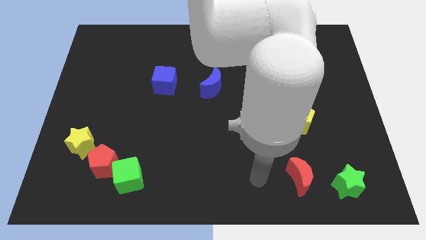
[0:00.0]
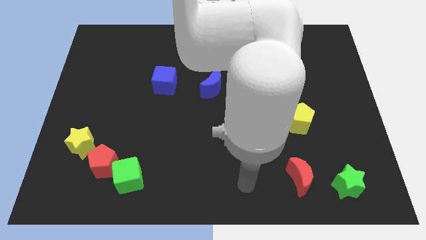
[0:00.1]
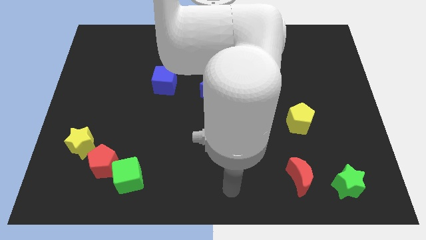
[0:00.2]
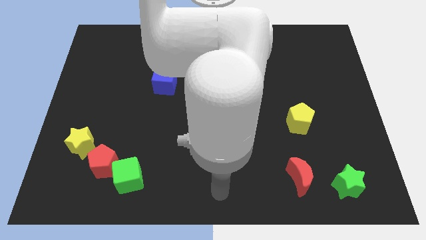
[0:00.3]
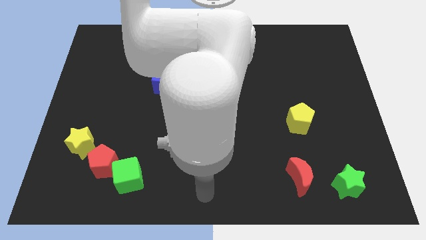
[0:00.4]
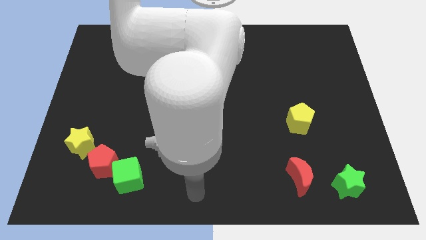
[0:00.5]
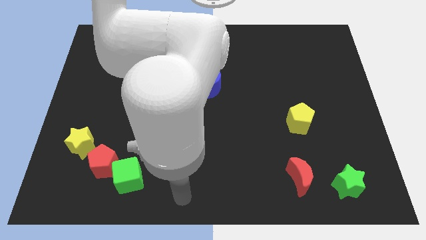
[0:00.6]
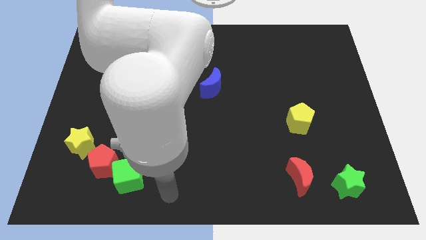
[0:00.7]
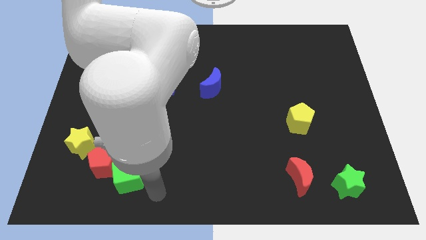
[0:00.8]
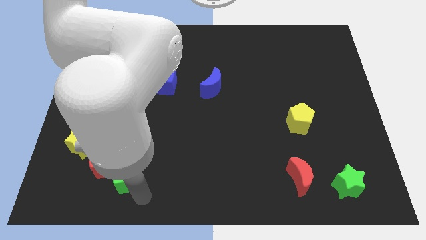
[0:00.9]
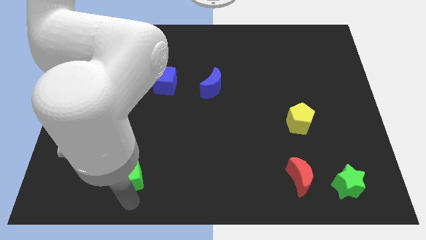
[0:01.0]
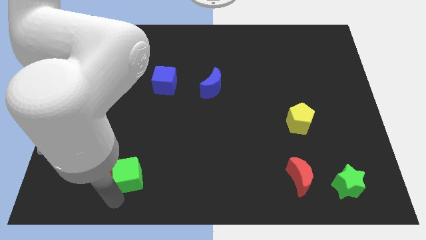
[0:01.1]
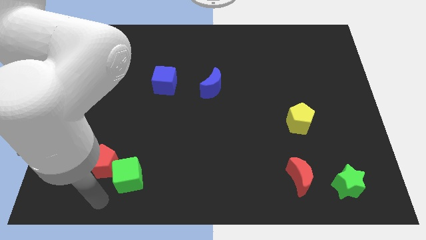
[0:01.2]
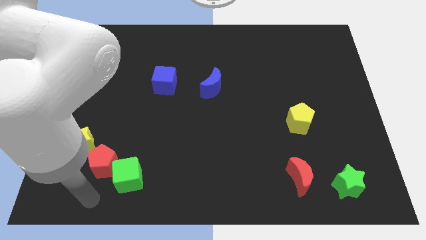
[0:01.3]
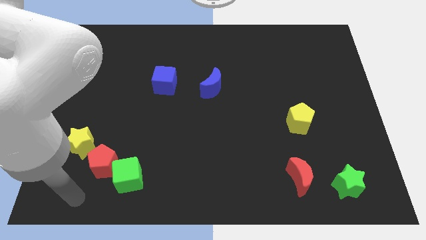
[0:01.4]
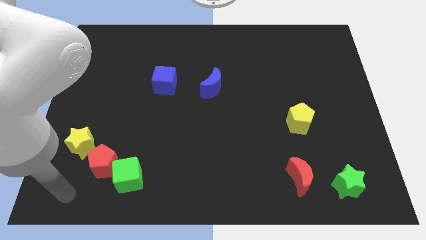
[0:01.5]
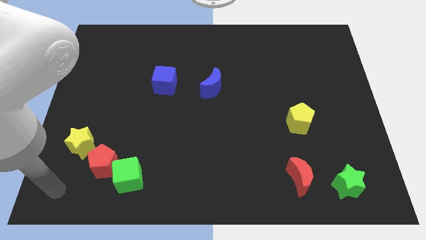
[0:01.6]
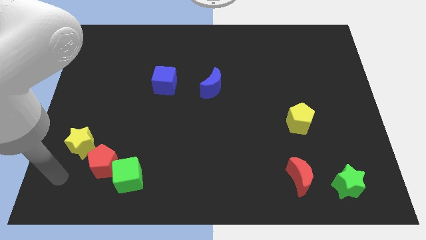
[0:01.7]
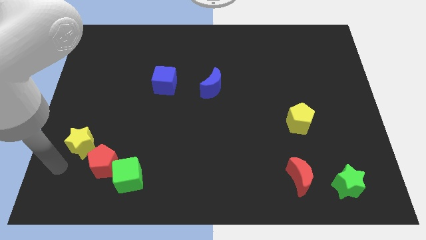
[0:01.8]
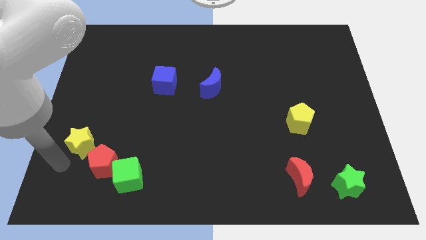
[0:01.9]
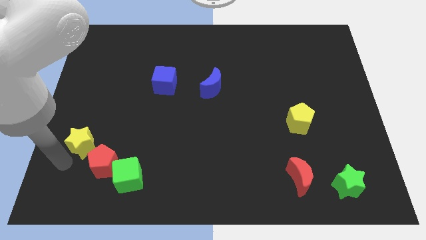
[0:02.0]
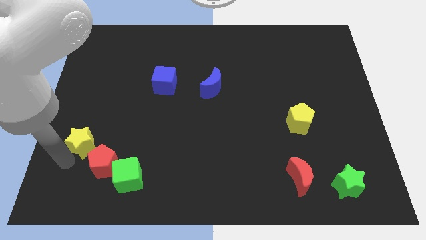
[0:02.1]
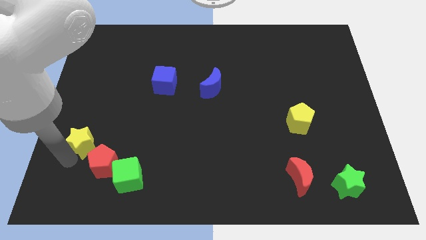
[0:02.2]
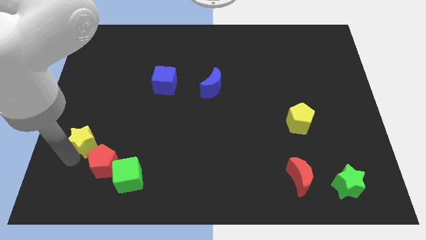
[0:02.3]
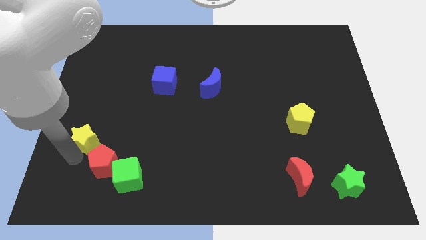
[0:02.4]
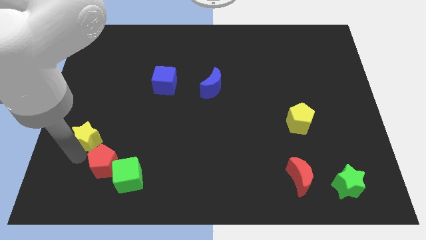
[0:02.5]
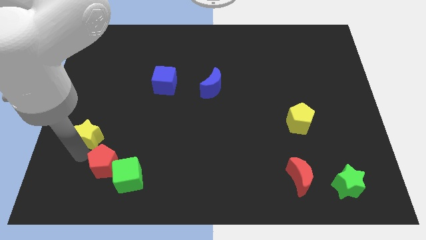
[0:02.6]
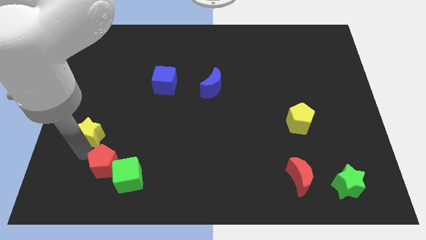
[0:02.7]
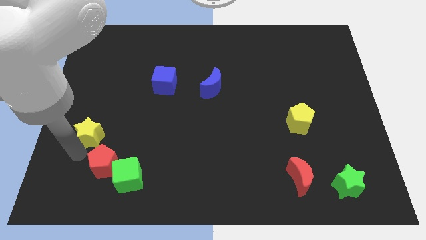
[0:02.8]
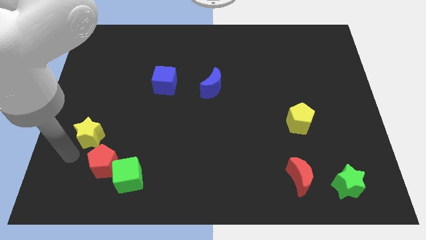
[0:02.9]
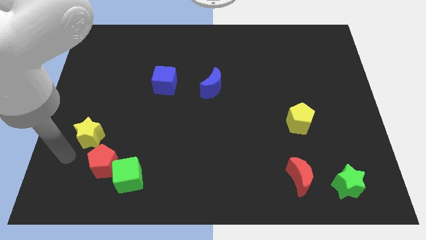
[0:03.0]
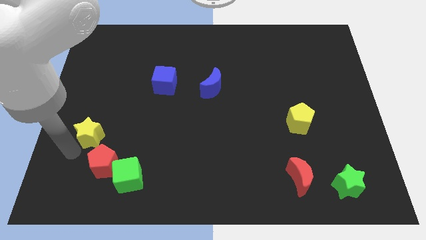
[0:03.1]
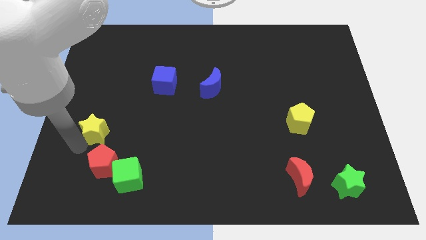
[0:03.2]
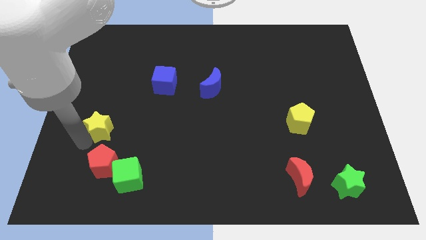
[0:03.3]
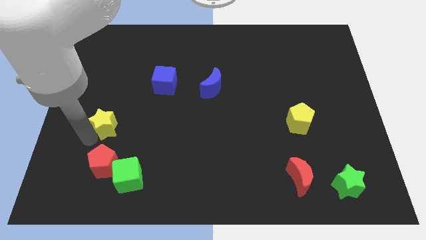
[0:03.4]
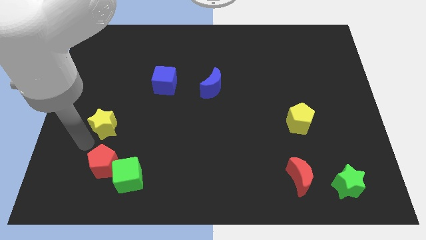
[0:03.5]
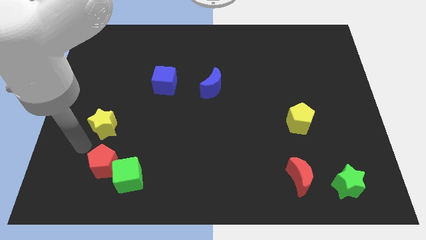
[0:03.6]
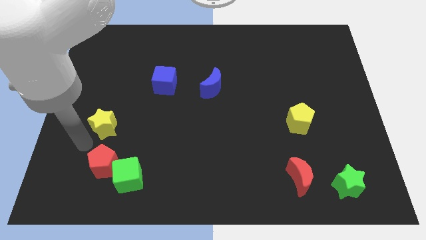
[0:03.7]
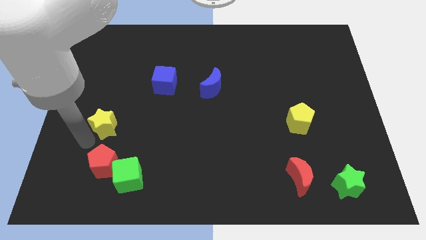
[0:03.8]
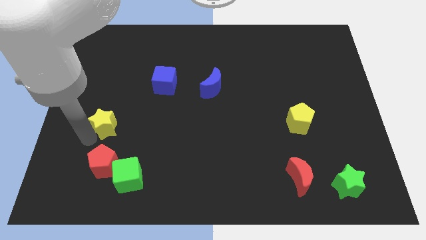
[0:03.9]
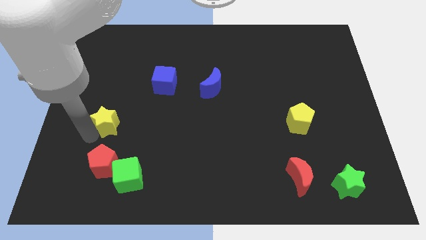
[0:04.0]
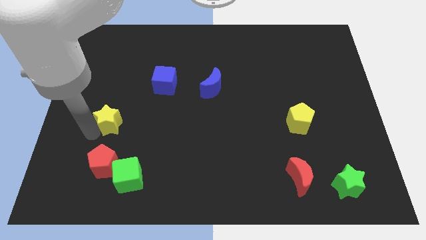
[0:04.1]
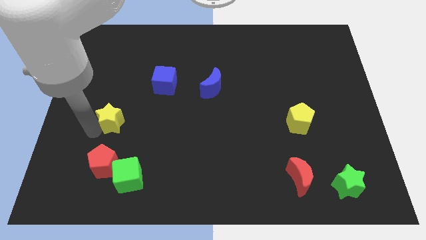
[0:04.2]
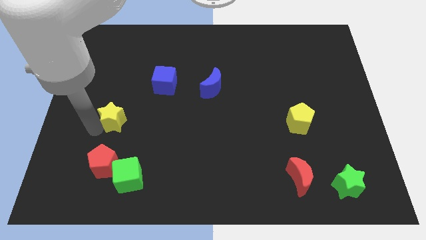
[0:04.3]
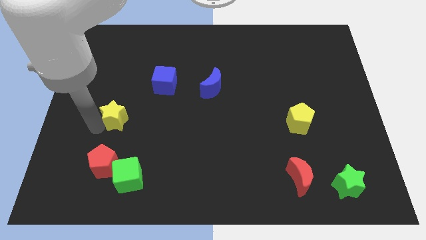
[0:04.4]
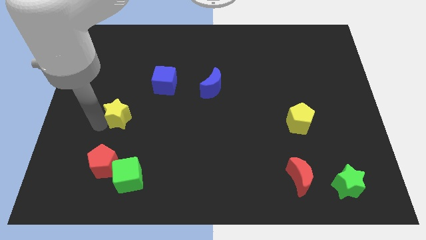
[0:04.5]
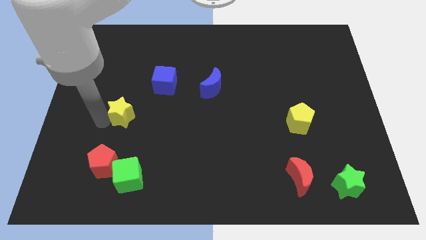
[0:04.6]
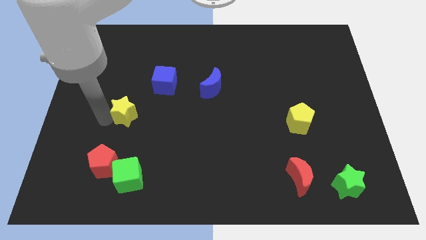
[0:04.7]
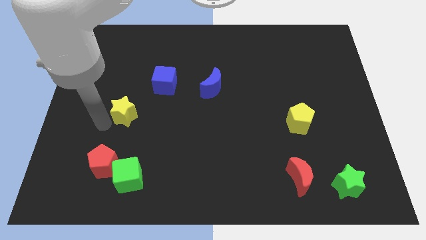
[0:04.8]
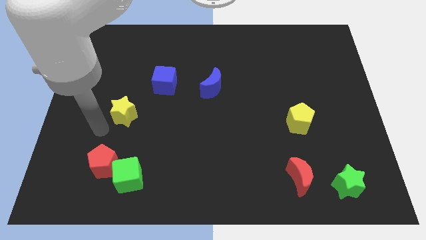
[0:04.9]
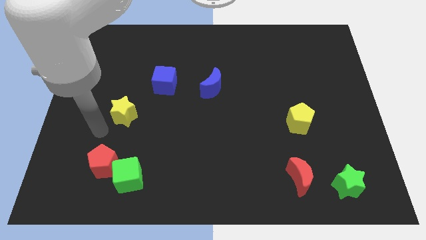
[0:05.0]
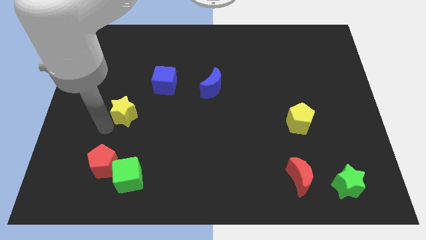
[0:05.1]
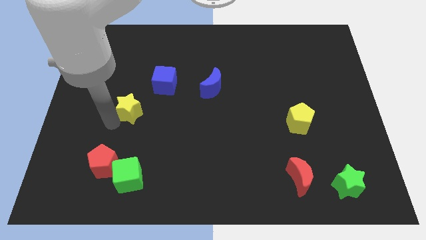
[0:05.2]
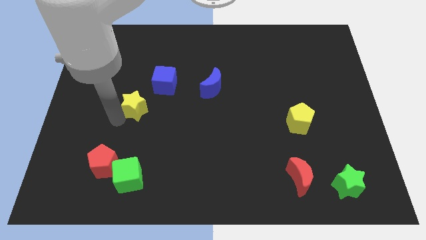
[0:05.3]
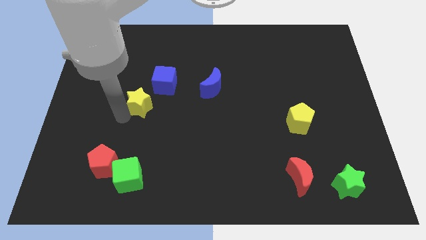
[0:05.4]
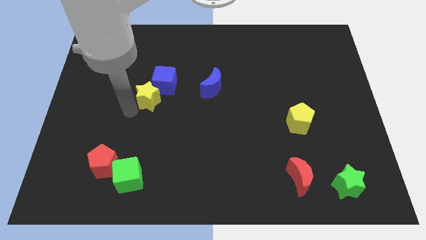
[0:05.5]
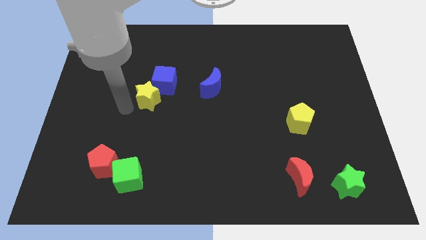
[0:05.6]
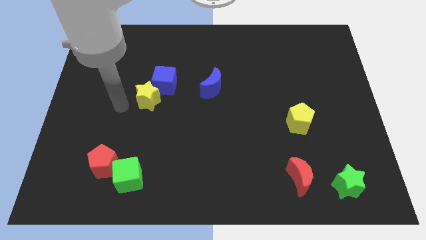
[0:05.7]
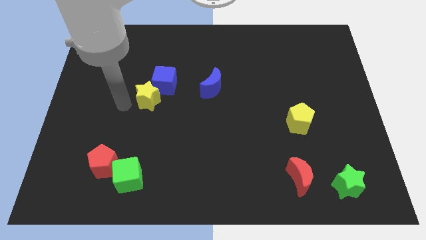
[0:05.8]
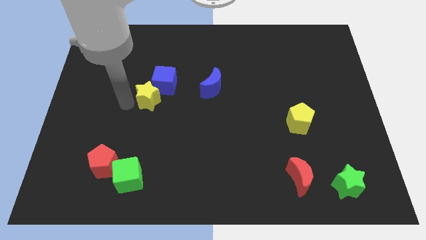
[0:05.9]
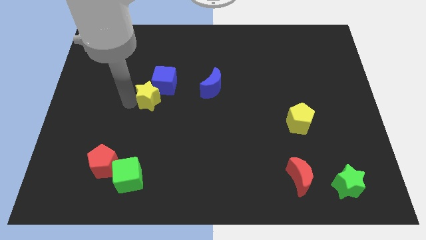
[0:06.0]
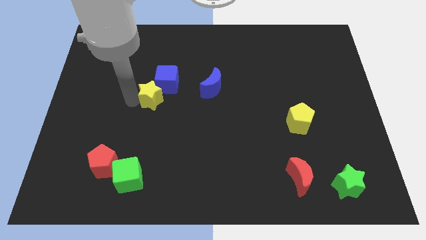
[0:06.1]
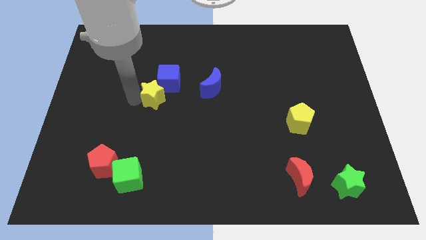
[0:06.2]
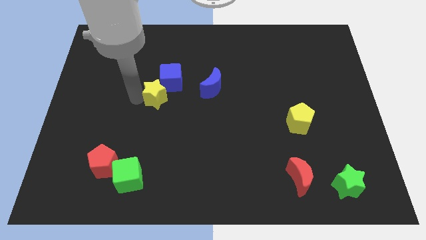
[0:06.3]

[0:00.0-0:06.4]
push the yellow star up and right diagonally

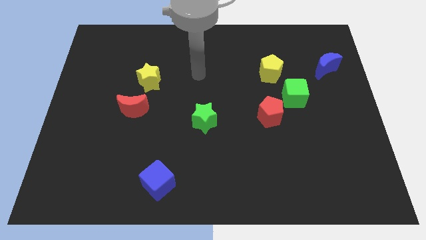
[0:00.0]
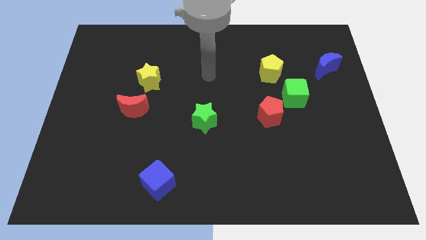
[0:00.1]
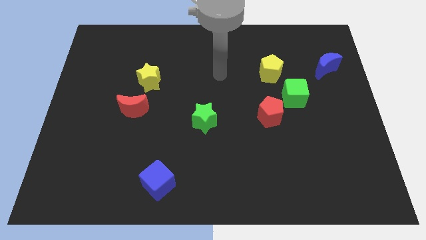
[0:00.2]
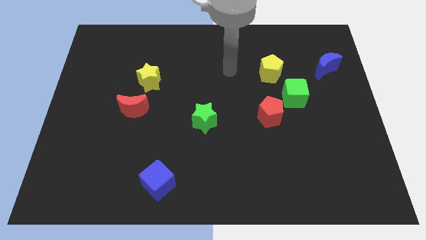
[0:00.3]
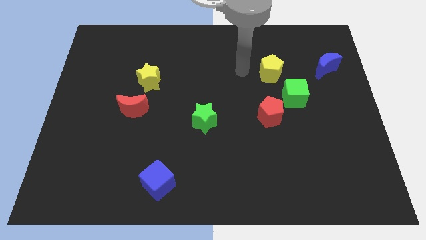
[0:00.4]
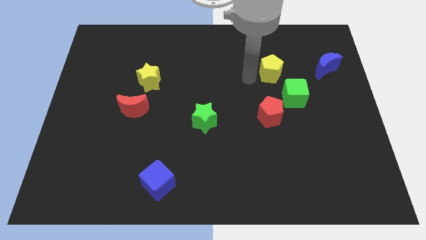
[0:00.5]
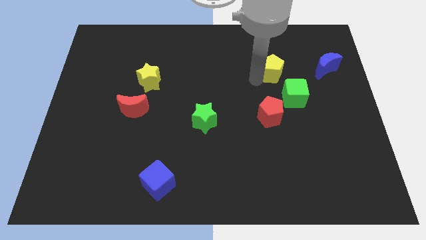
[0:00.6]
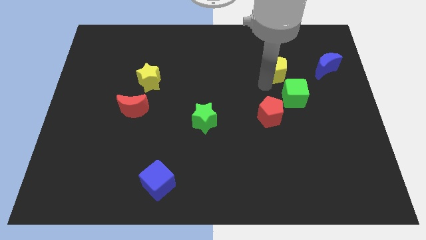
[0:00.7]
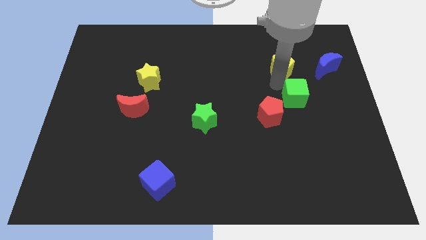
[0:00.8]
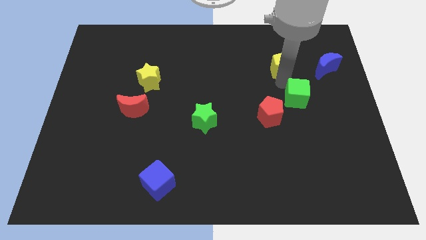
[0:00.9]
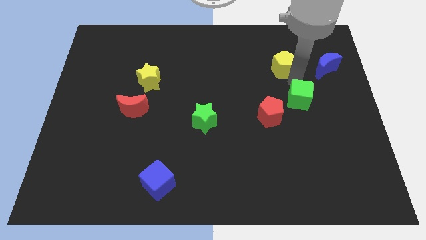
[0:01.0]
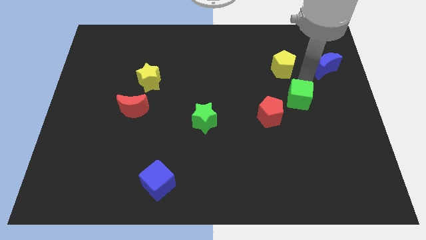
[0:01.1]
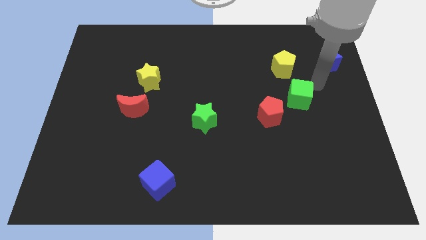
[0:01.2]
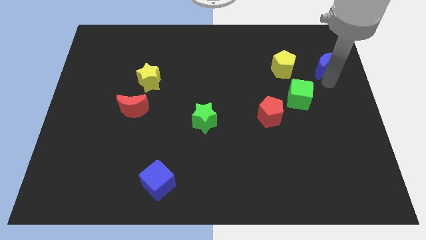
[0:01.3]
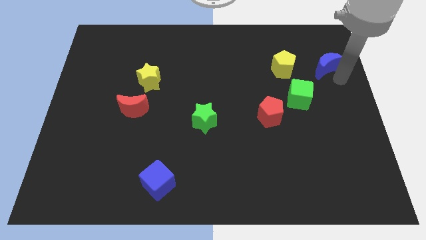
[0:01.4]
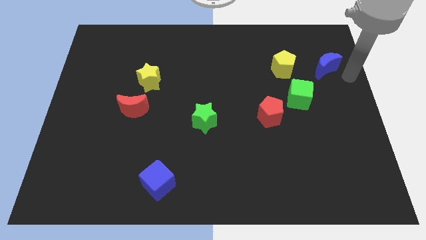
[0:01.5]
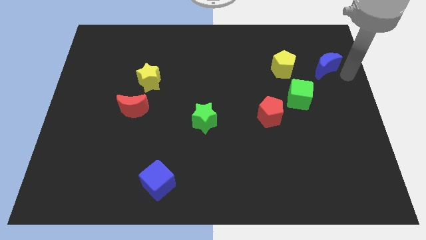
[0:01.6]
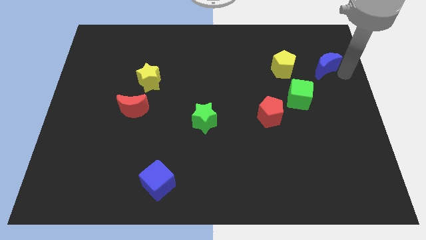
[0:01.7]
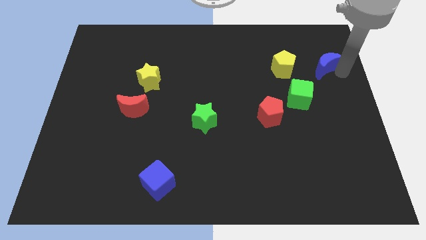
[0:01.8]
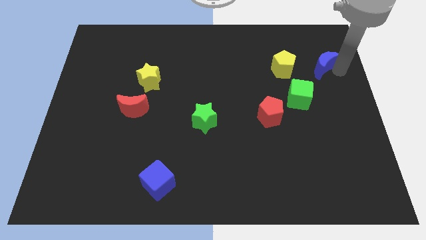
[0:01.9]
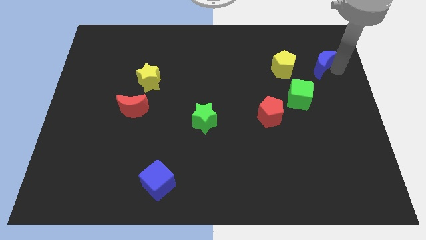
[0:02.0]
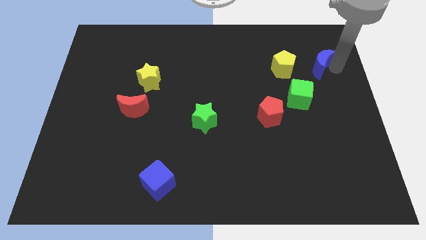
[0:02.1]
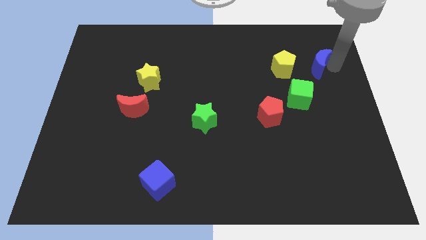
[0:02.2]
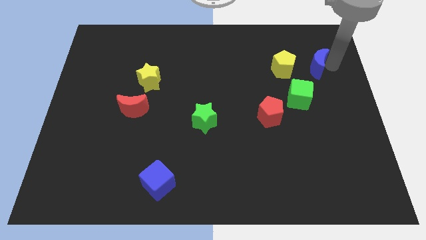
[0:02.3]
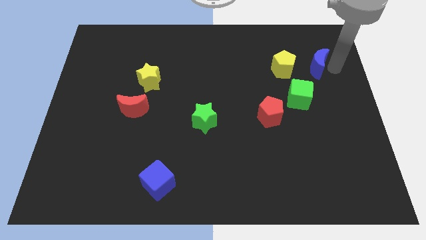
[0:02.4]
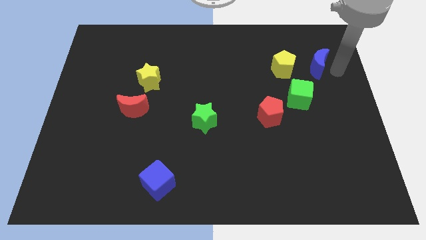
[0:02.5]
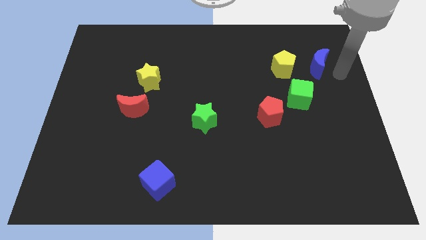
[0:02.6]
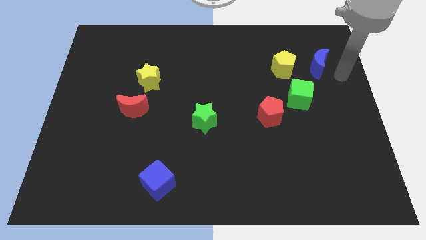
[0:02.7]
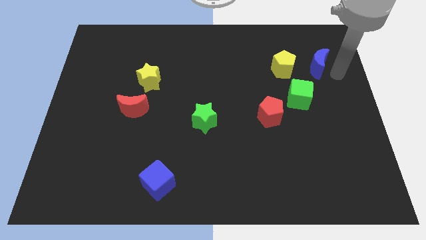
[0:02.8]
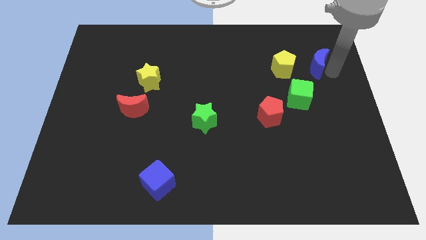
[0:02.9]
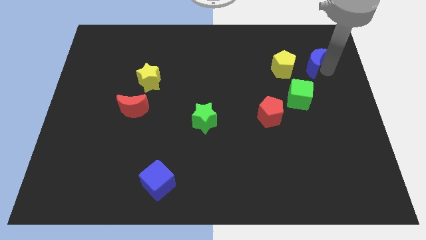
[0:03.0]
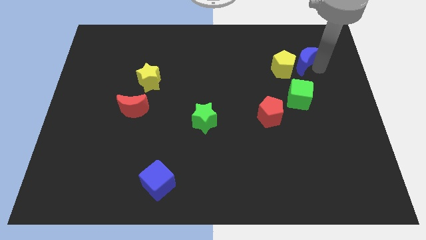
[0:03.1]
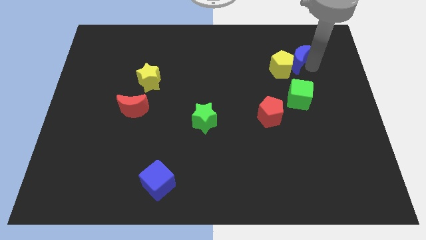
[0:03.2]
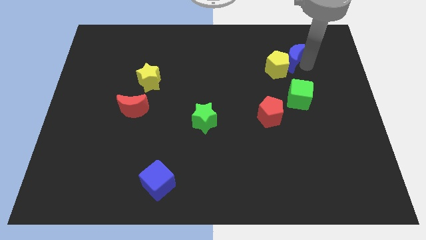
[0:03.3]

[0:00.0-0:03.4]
slightly move the blue moon to the left
